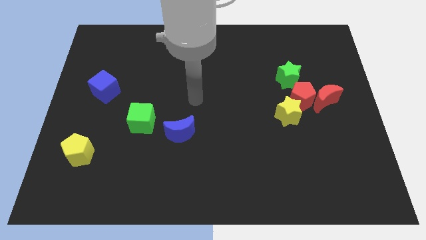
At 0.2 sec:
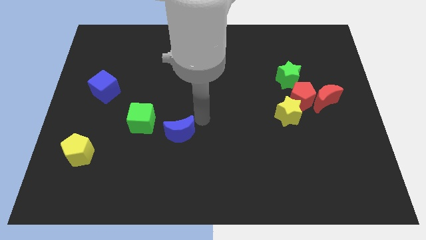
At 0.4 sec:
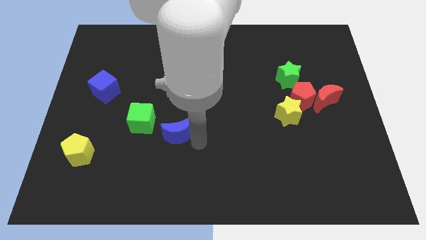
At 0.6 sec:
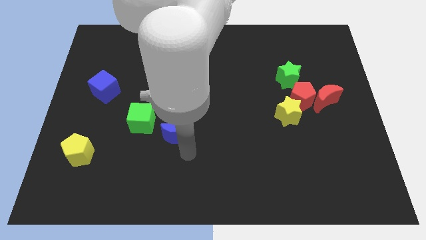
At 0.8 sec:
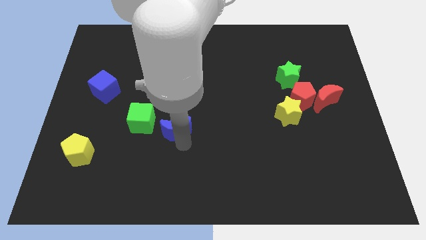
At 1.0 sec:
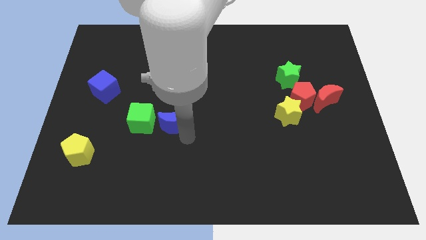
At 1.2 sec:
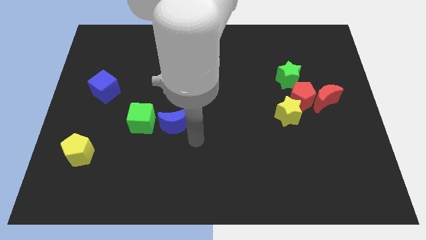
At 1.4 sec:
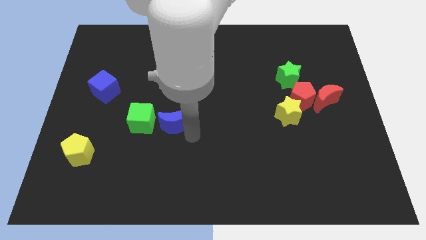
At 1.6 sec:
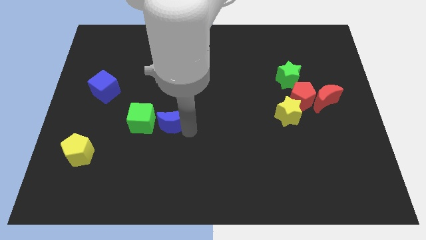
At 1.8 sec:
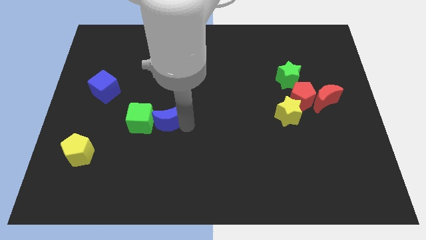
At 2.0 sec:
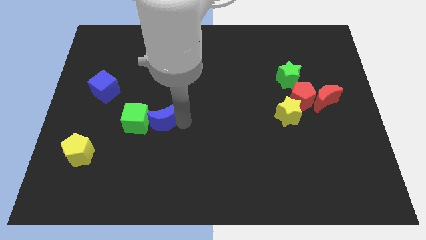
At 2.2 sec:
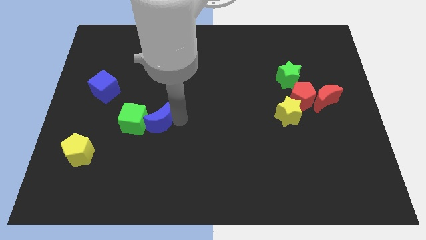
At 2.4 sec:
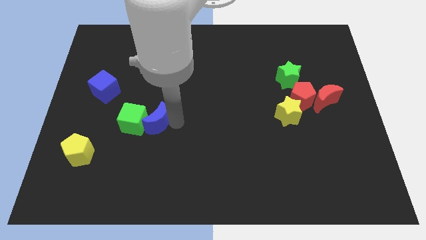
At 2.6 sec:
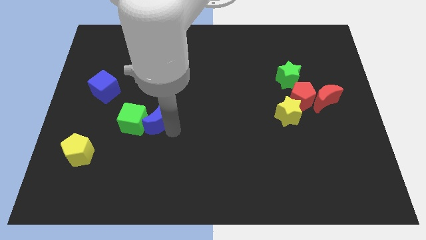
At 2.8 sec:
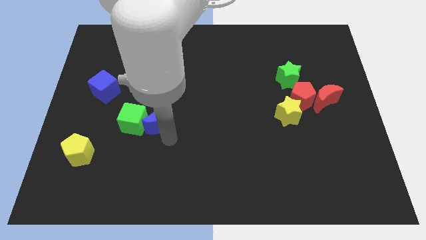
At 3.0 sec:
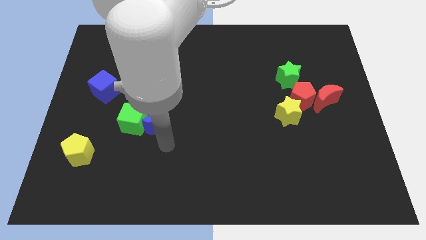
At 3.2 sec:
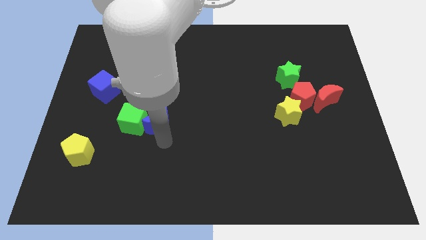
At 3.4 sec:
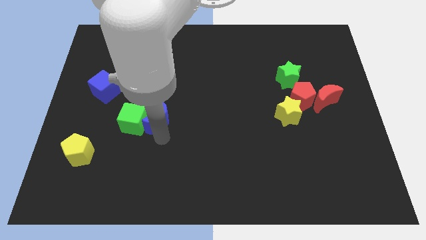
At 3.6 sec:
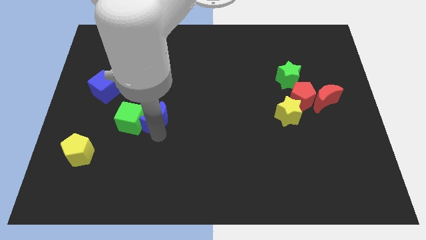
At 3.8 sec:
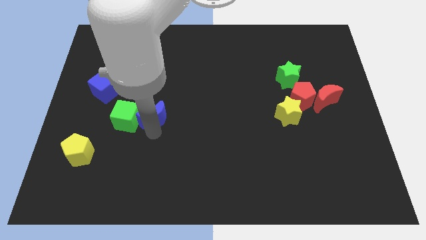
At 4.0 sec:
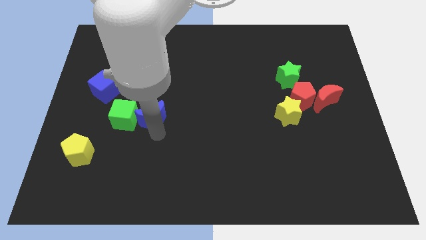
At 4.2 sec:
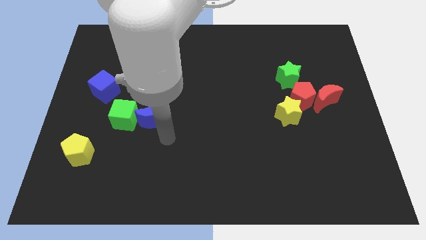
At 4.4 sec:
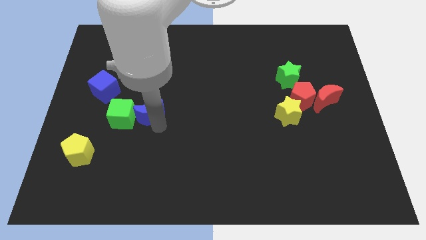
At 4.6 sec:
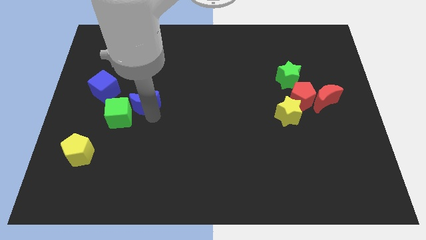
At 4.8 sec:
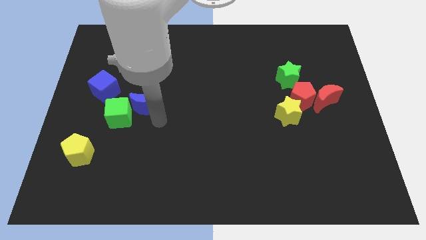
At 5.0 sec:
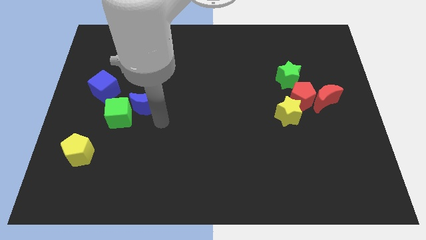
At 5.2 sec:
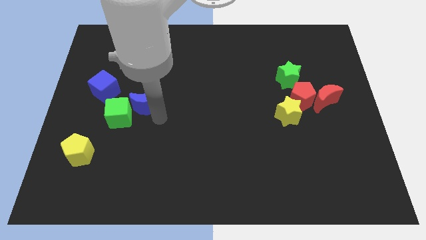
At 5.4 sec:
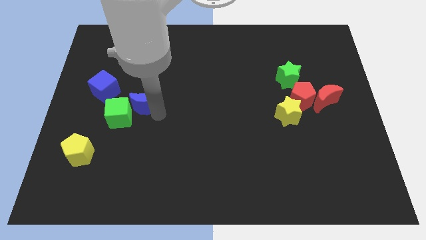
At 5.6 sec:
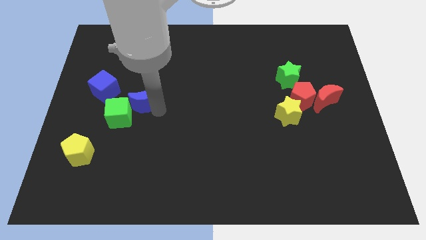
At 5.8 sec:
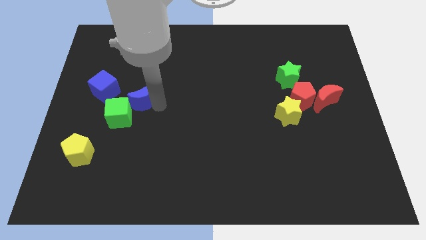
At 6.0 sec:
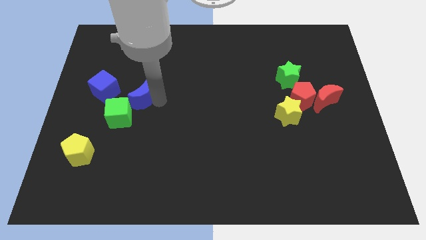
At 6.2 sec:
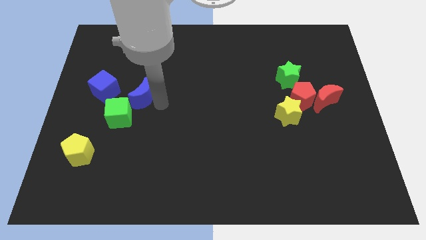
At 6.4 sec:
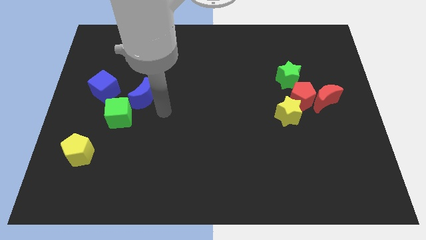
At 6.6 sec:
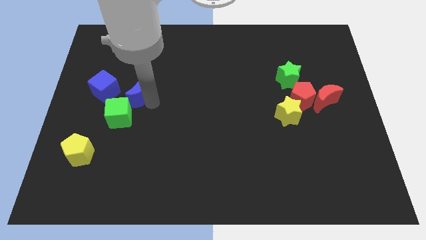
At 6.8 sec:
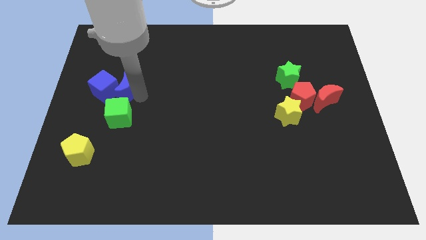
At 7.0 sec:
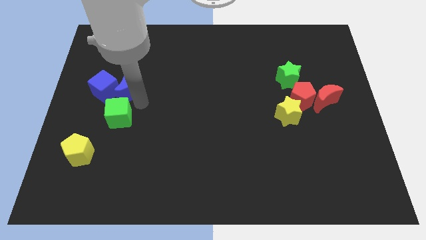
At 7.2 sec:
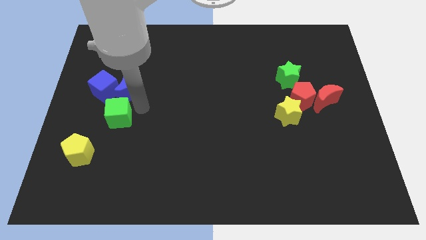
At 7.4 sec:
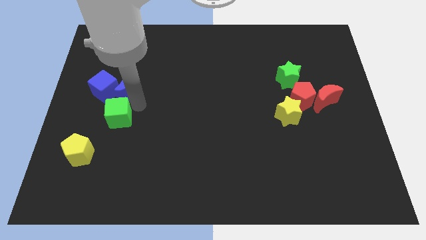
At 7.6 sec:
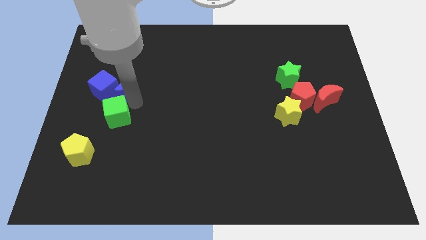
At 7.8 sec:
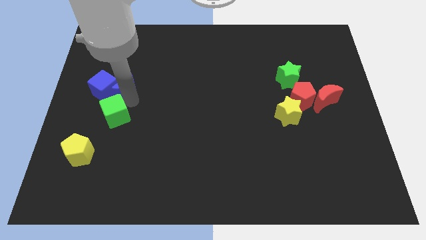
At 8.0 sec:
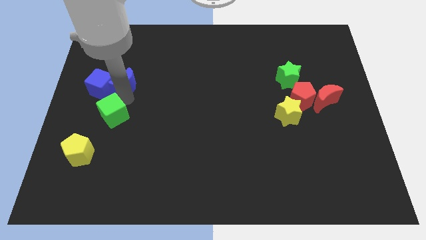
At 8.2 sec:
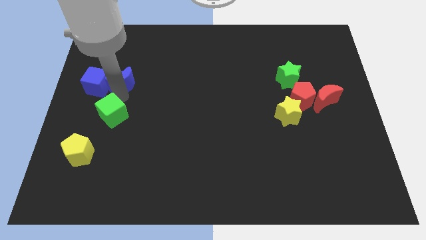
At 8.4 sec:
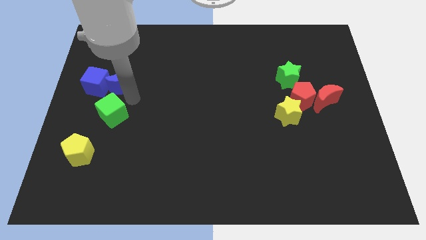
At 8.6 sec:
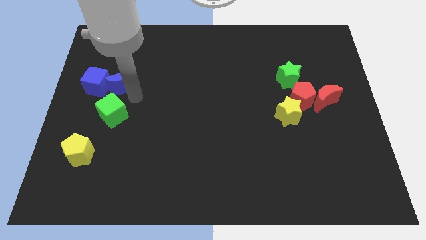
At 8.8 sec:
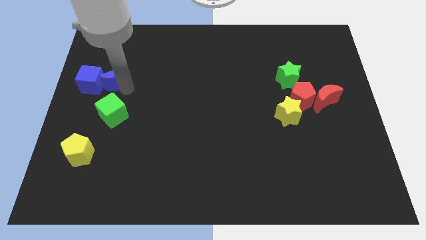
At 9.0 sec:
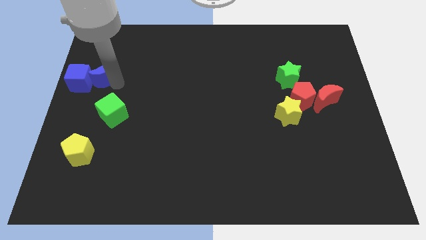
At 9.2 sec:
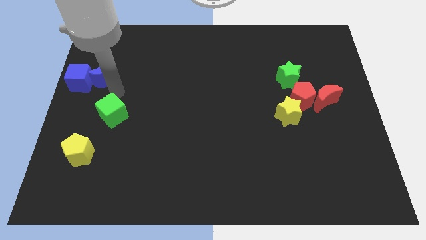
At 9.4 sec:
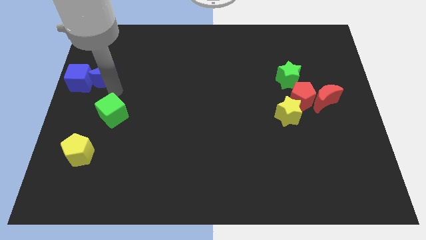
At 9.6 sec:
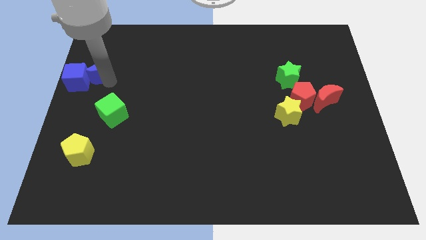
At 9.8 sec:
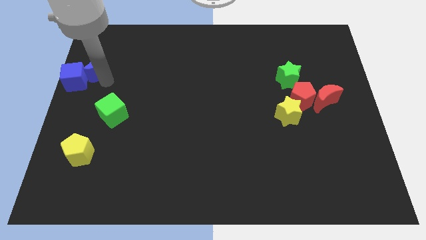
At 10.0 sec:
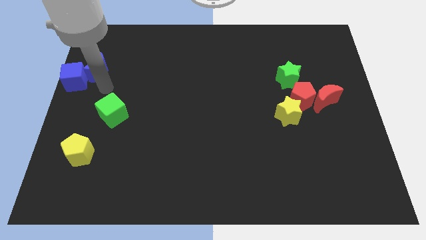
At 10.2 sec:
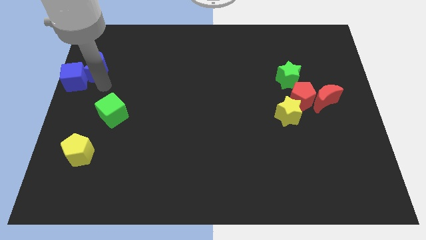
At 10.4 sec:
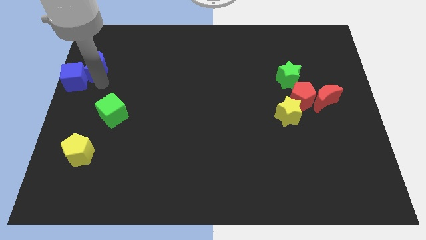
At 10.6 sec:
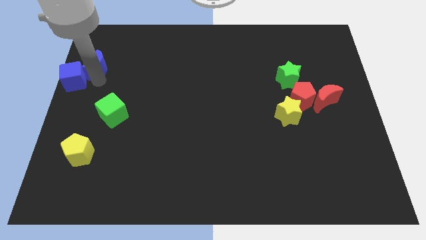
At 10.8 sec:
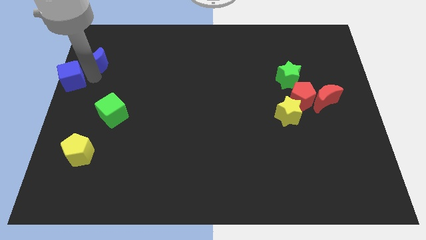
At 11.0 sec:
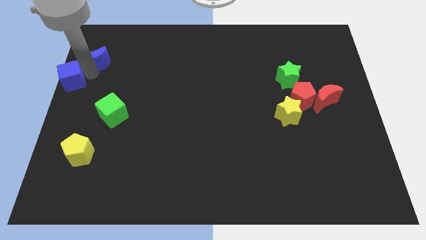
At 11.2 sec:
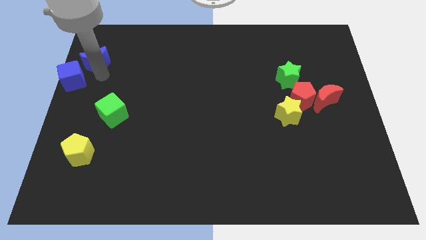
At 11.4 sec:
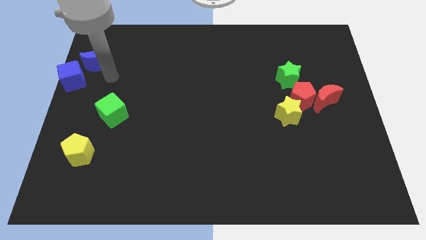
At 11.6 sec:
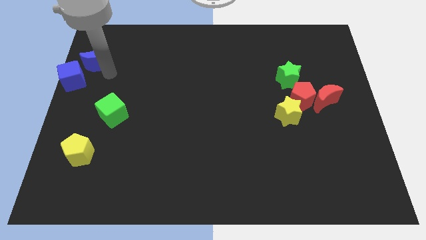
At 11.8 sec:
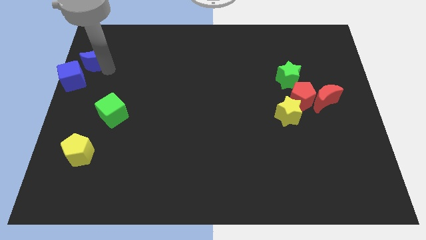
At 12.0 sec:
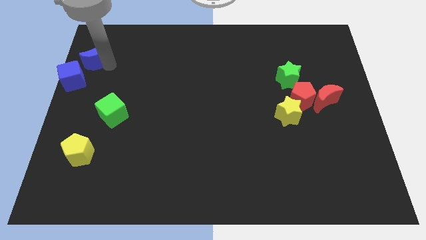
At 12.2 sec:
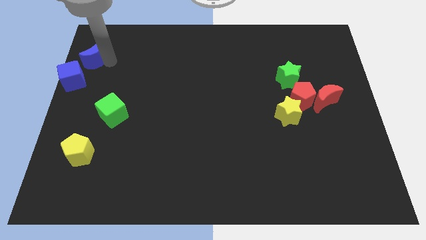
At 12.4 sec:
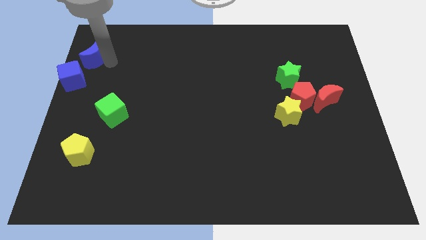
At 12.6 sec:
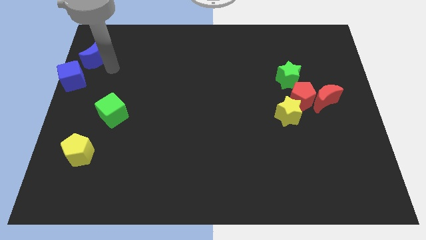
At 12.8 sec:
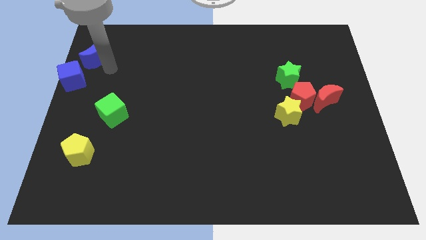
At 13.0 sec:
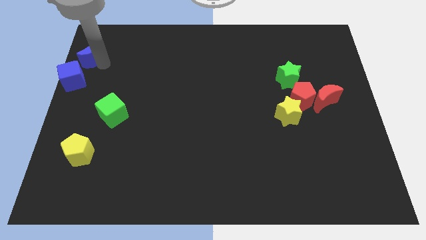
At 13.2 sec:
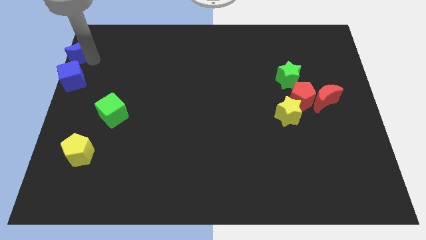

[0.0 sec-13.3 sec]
slide the blue moon to the top left corner

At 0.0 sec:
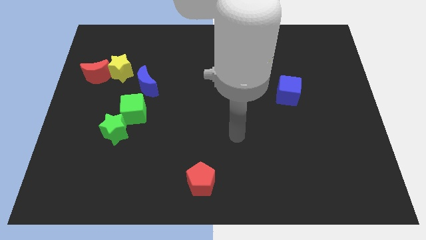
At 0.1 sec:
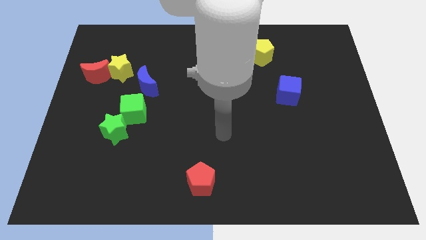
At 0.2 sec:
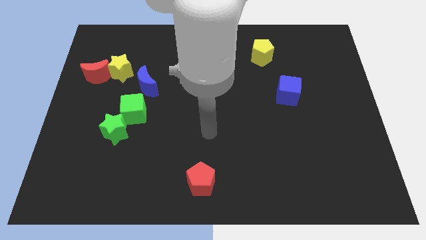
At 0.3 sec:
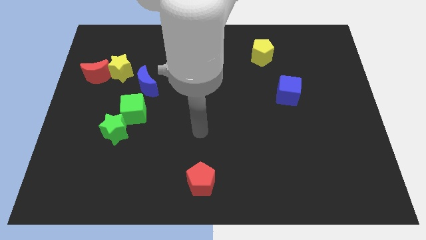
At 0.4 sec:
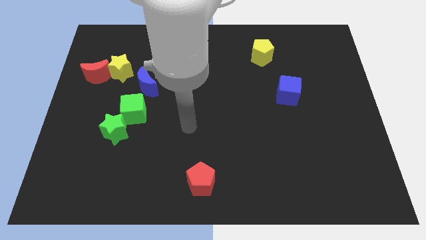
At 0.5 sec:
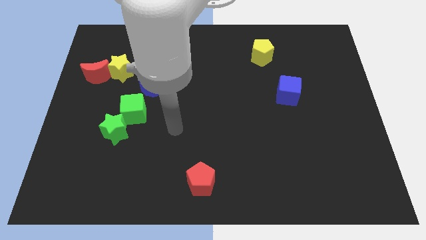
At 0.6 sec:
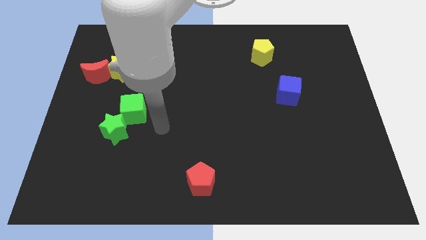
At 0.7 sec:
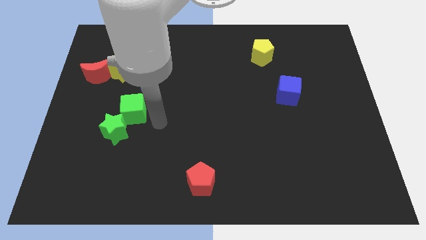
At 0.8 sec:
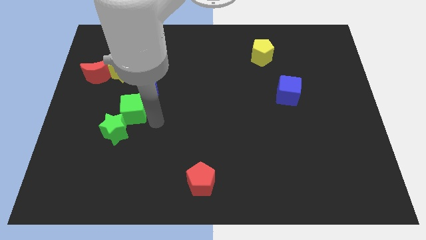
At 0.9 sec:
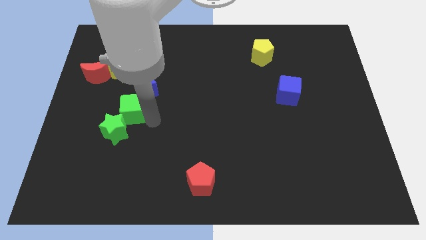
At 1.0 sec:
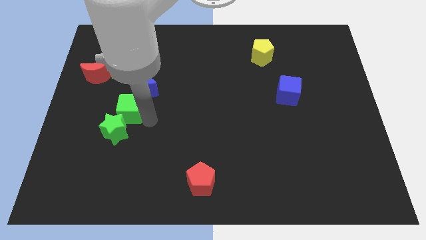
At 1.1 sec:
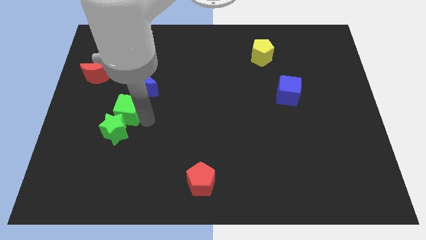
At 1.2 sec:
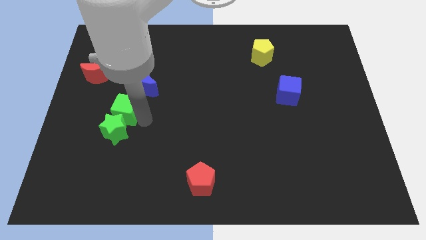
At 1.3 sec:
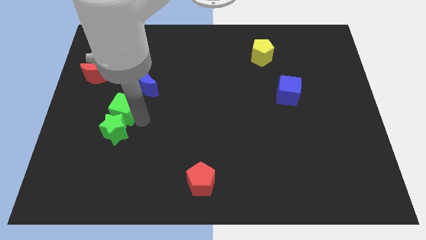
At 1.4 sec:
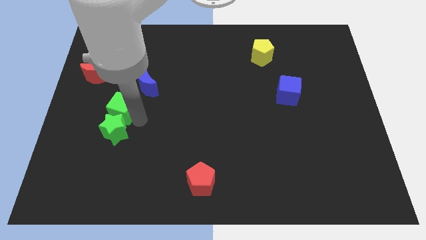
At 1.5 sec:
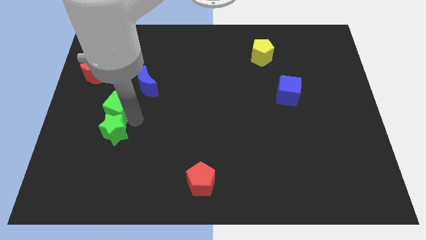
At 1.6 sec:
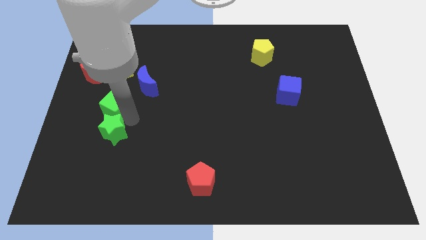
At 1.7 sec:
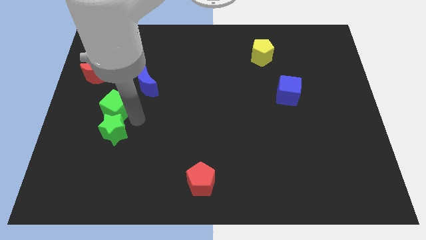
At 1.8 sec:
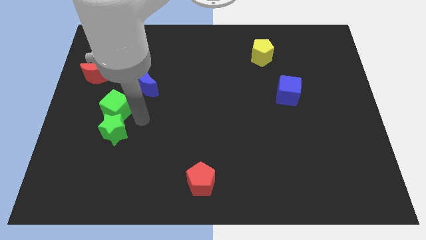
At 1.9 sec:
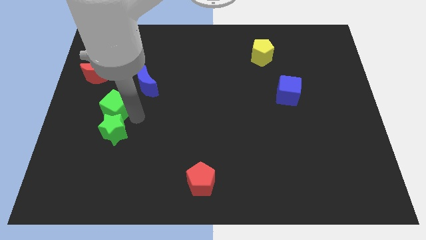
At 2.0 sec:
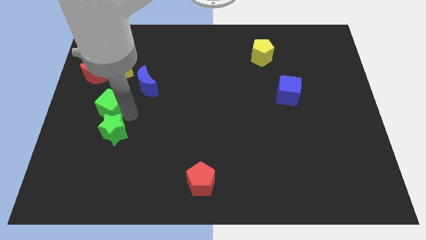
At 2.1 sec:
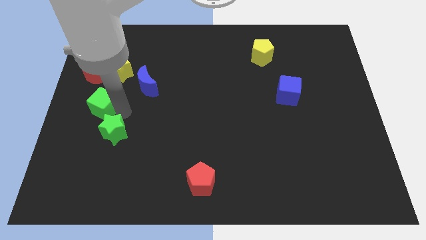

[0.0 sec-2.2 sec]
slide the green cube to the left side
